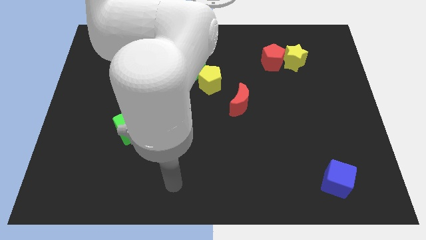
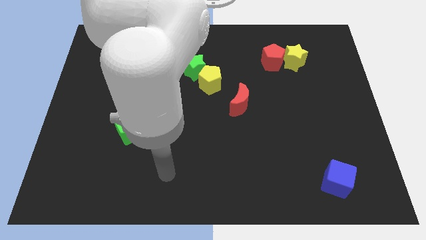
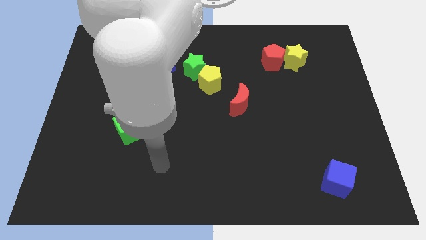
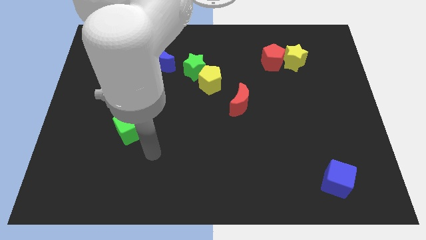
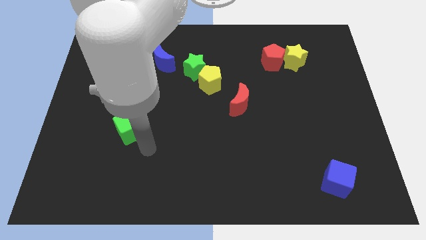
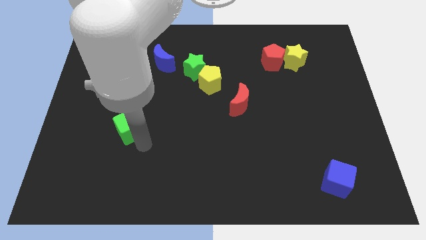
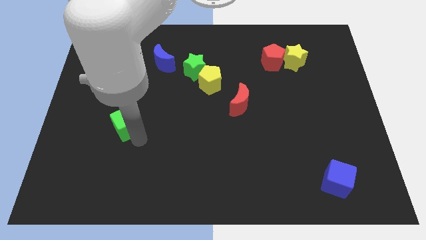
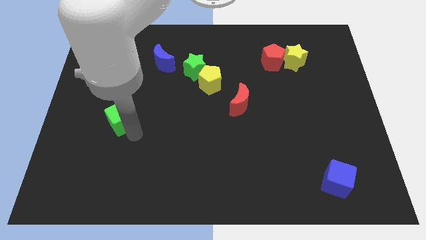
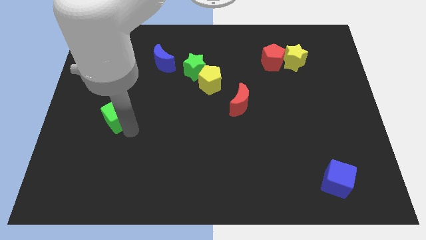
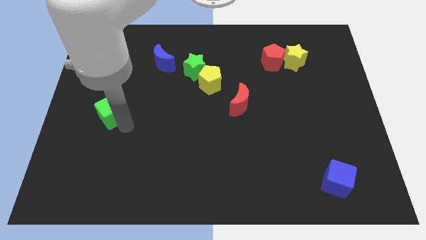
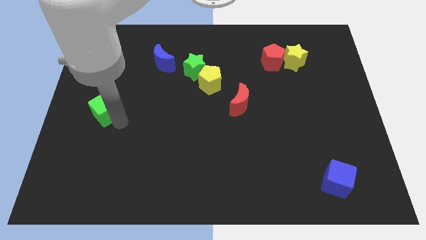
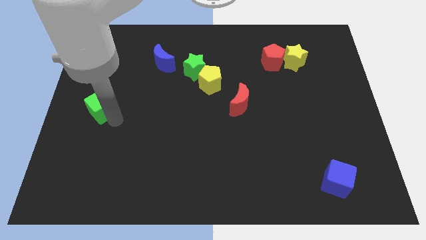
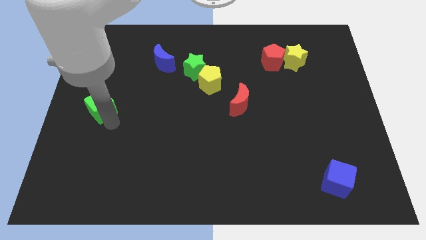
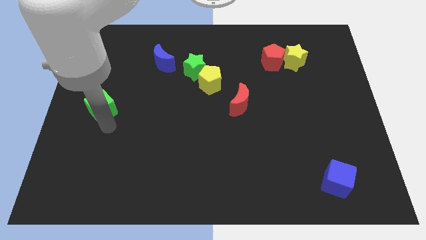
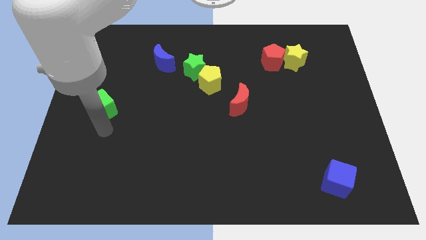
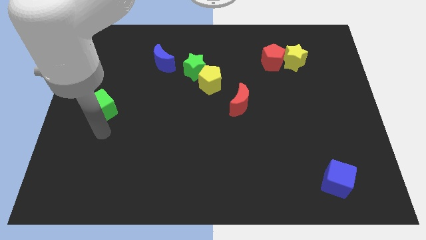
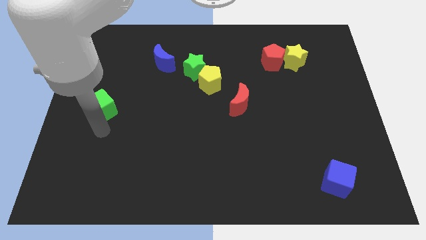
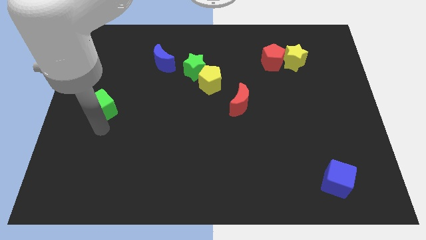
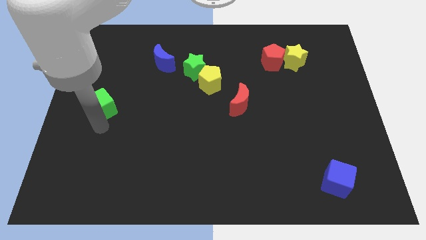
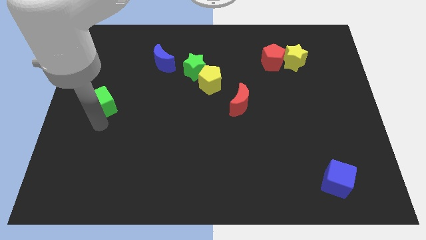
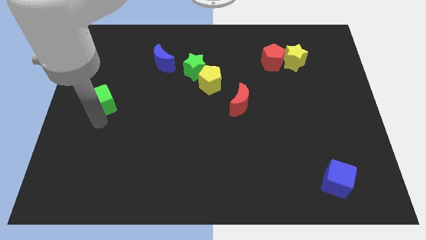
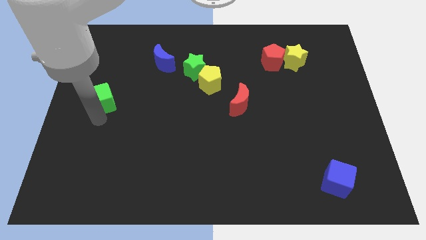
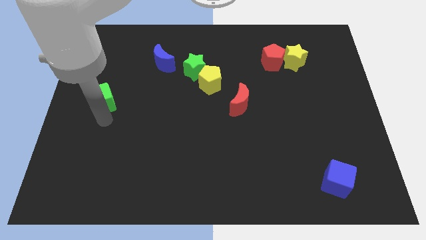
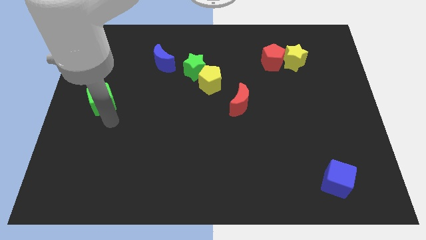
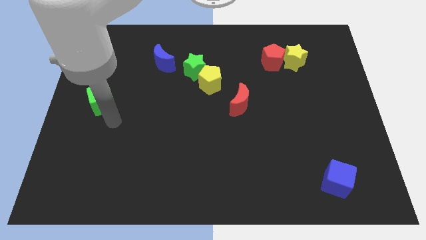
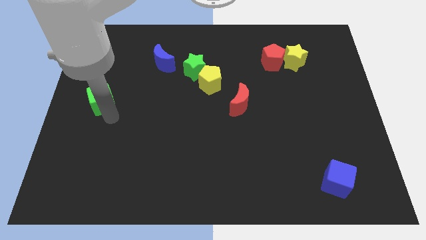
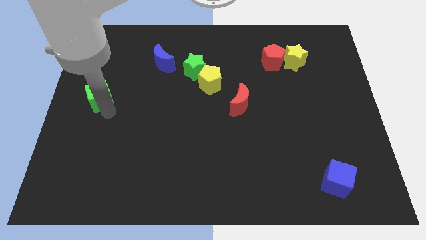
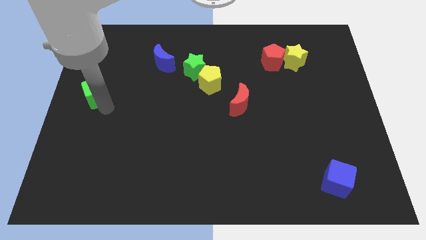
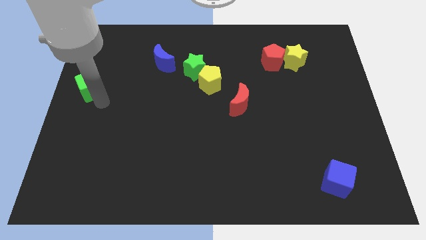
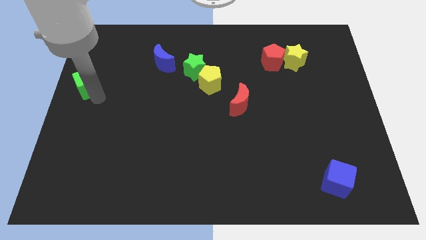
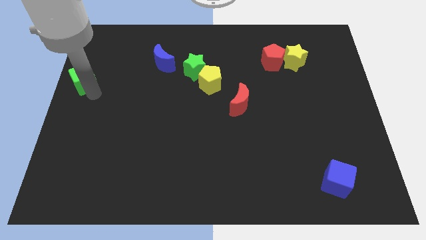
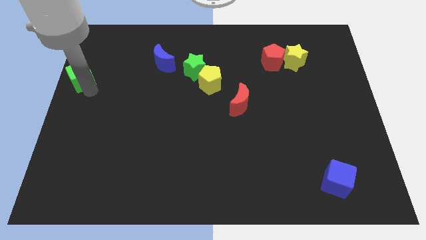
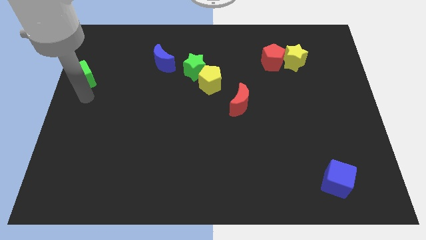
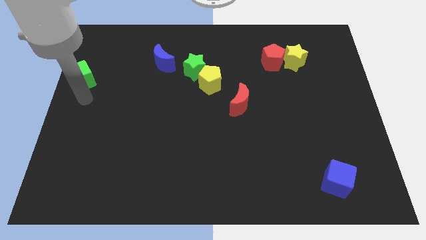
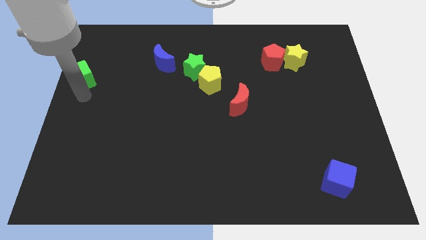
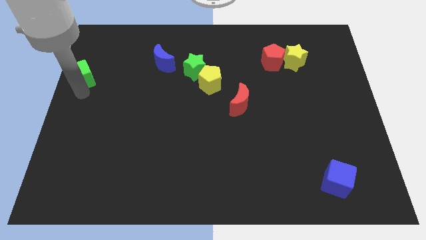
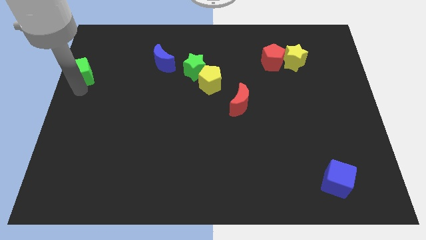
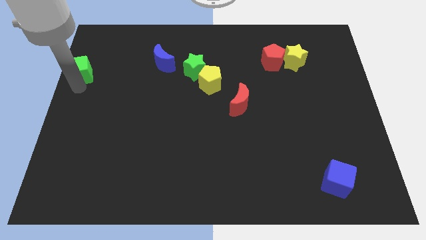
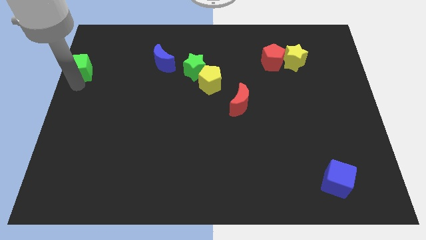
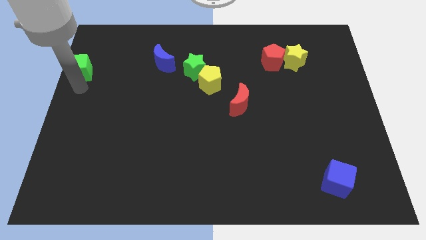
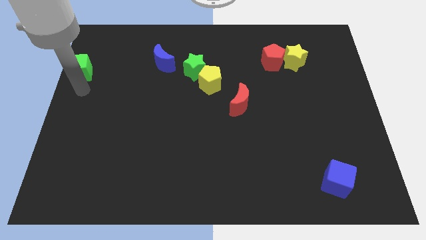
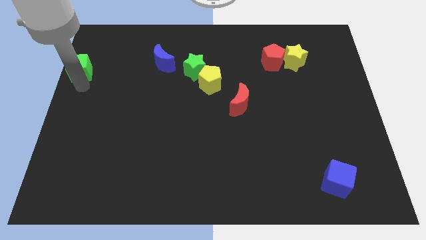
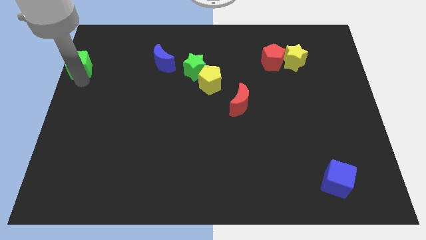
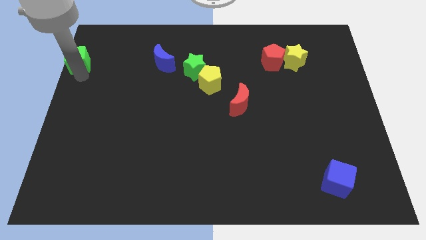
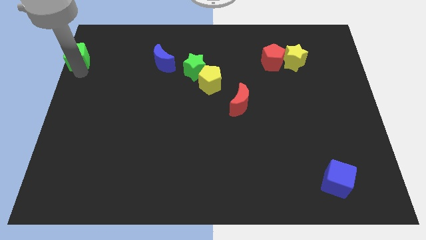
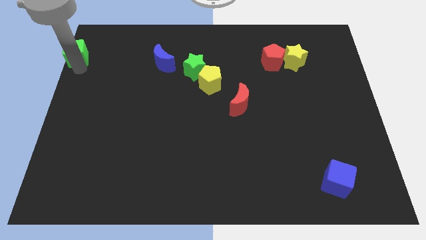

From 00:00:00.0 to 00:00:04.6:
slide the green cube to the upper left corner

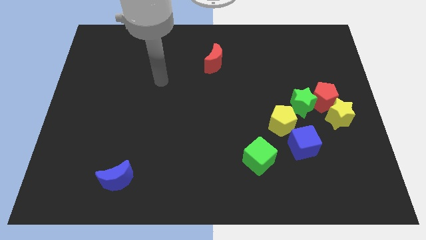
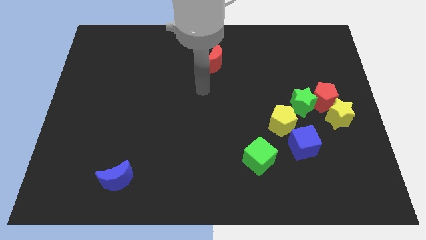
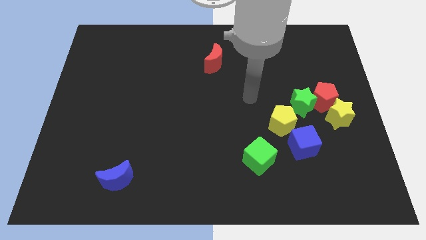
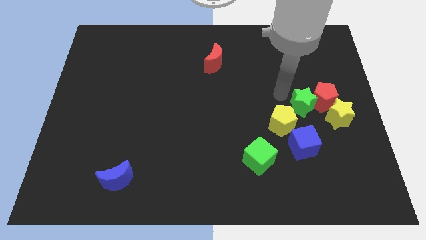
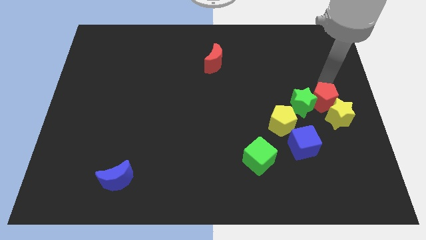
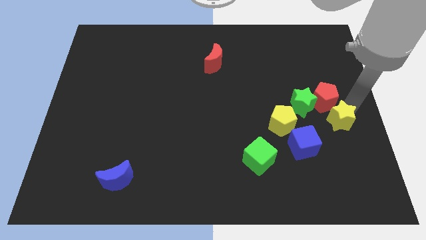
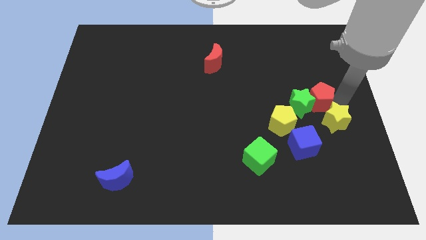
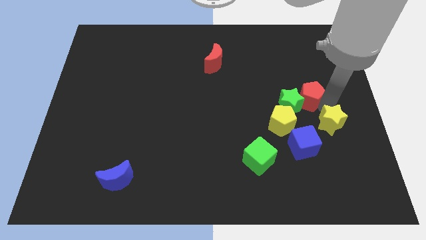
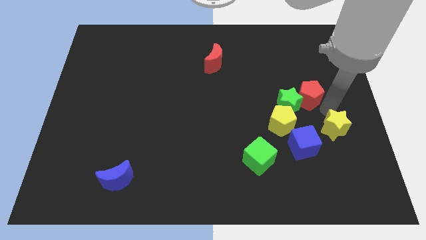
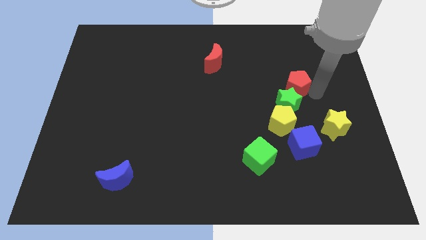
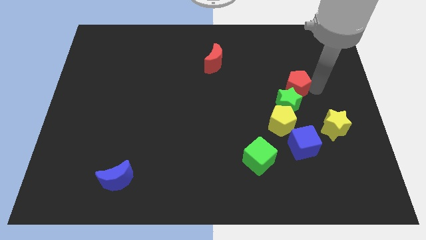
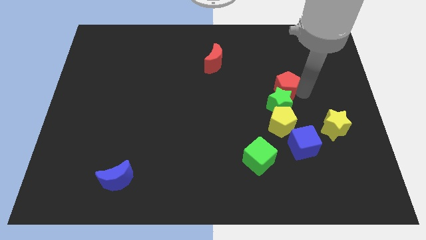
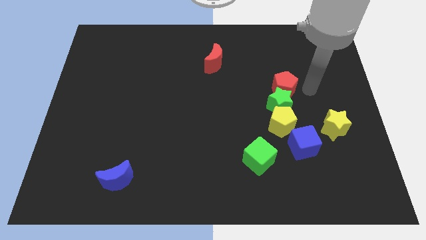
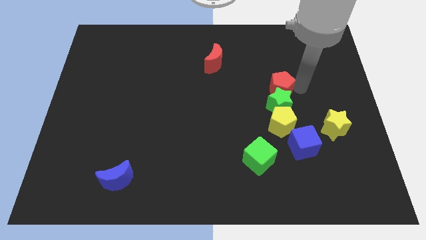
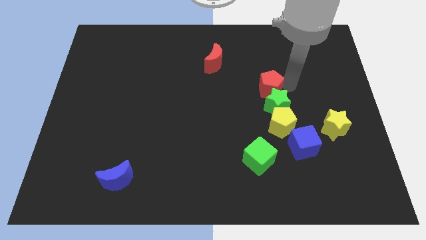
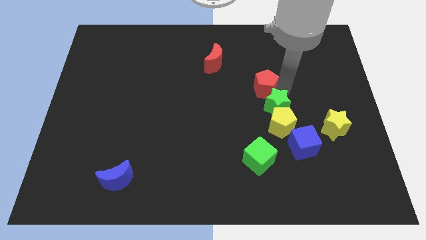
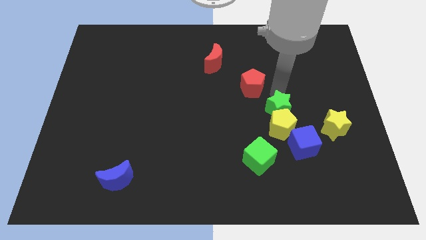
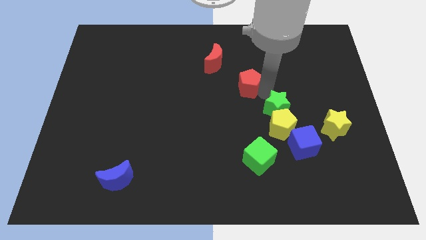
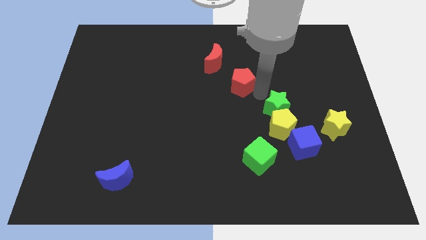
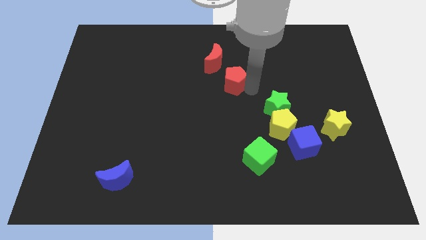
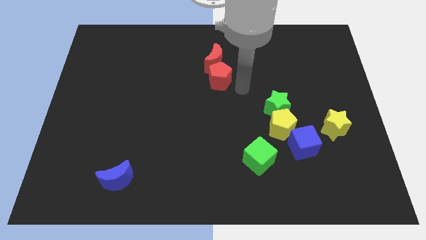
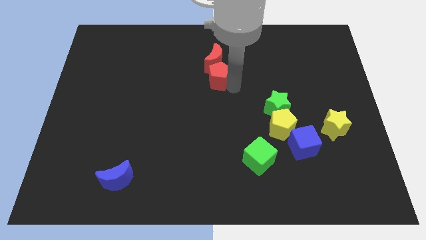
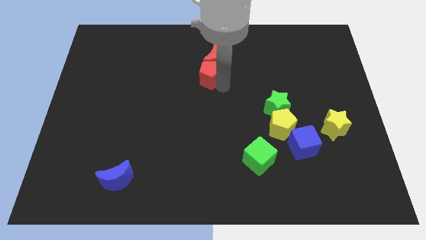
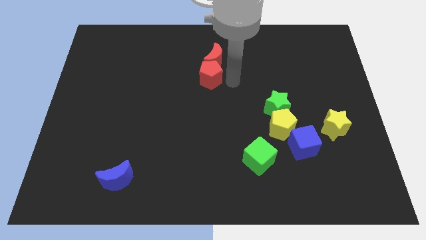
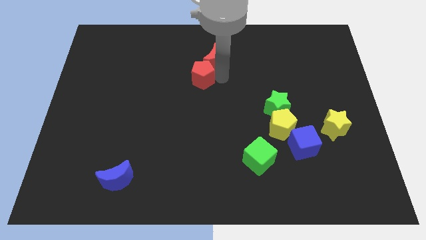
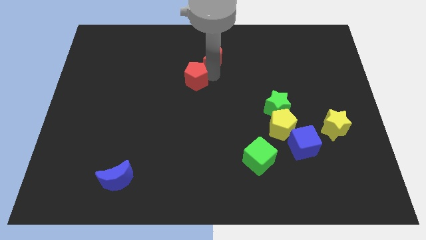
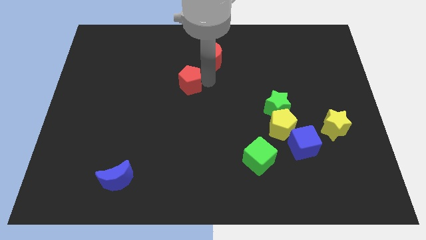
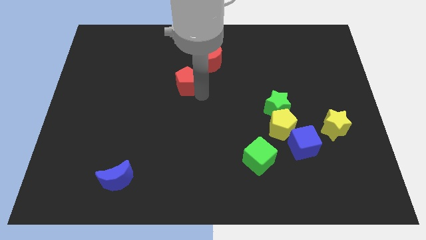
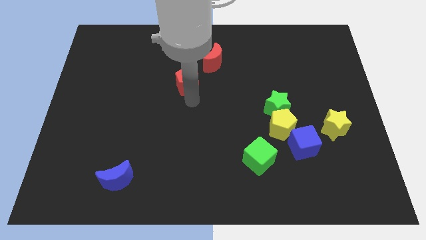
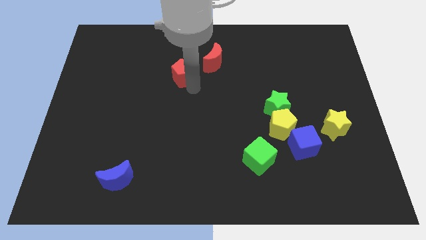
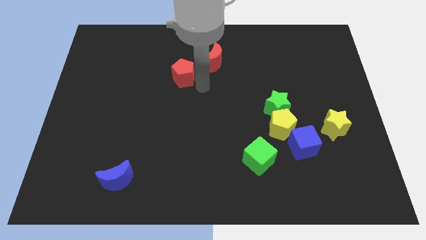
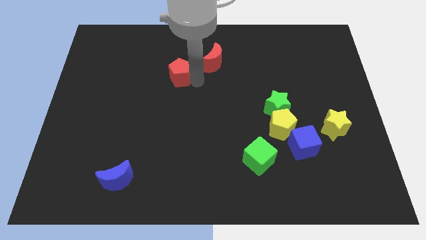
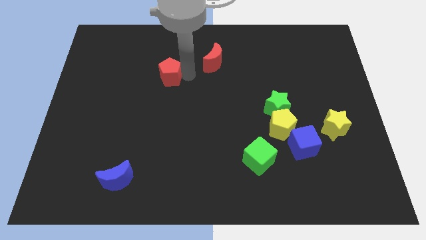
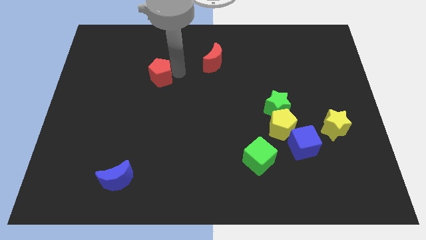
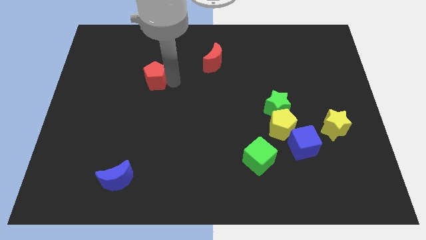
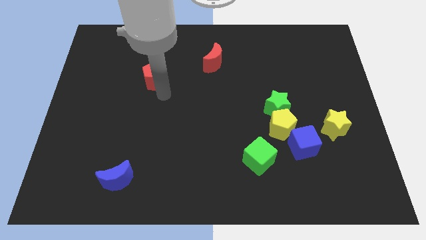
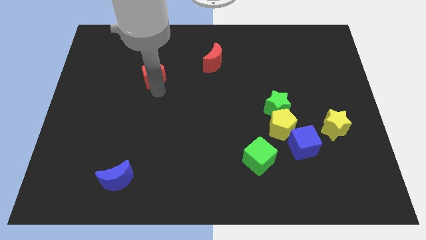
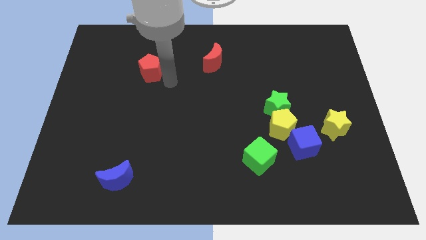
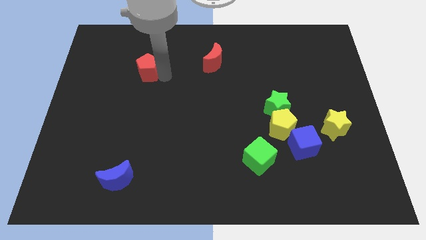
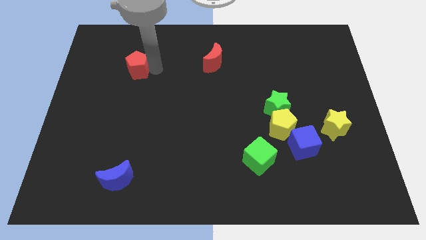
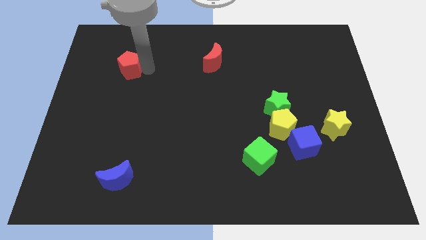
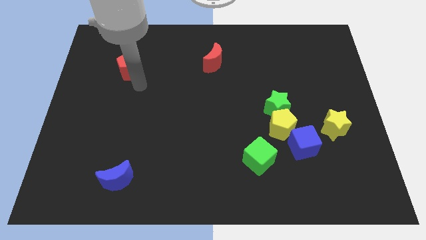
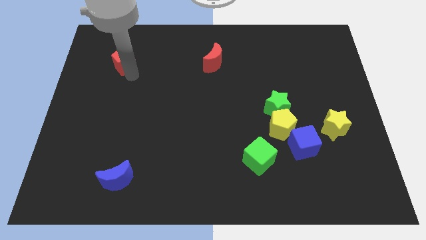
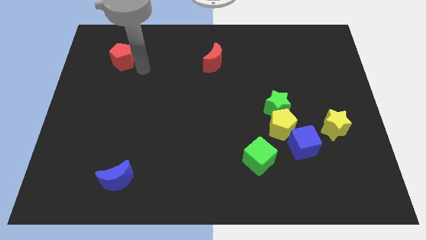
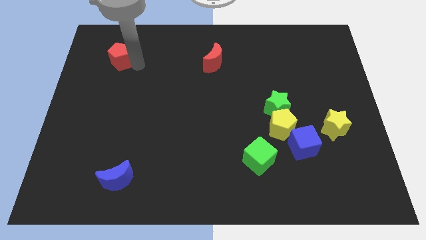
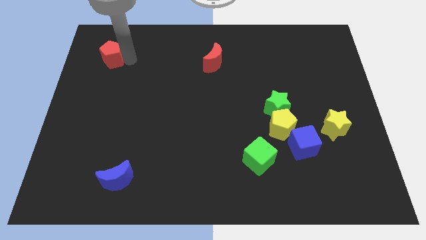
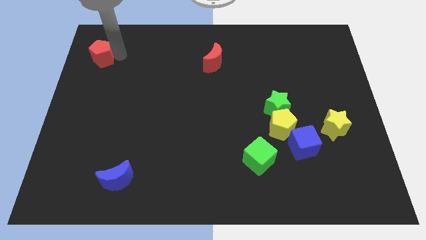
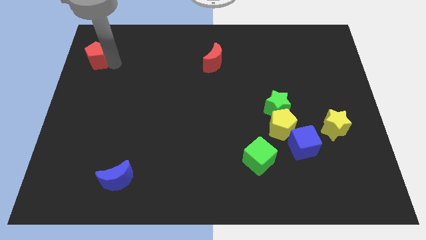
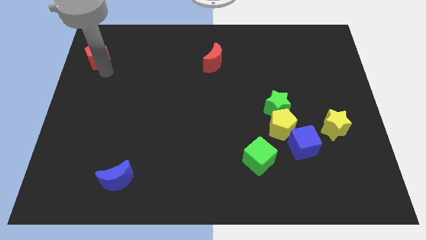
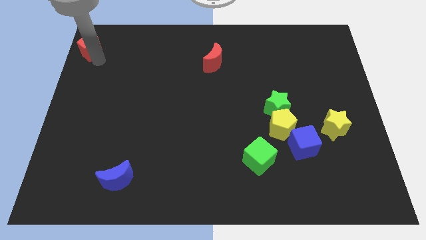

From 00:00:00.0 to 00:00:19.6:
move the red pentagon to the upper left corner
